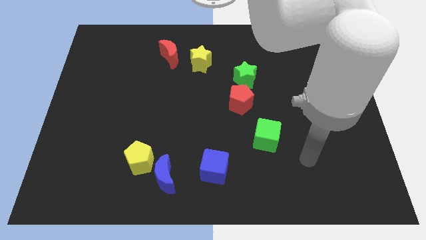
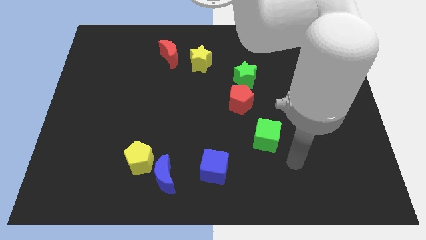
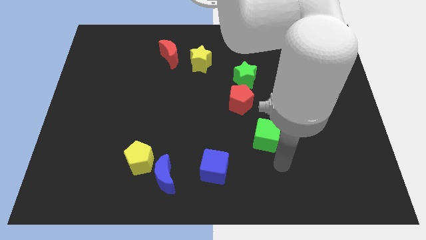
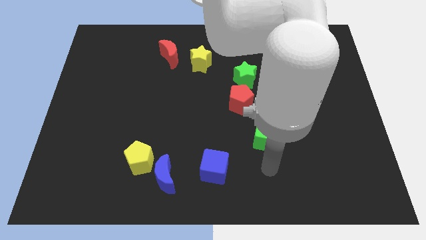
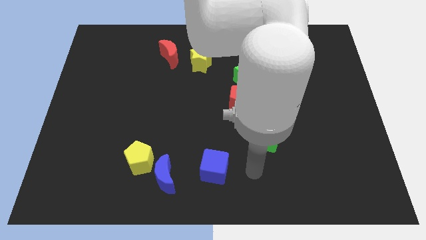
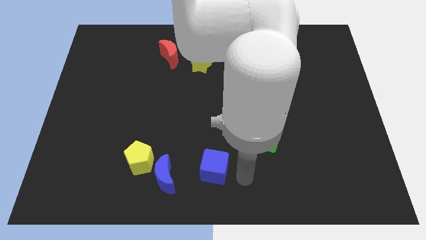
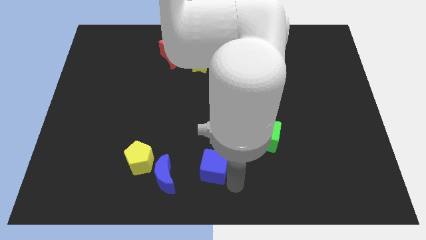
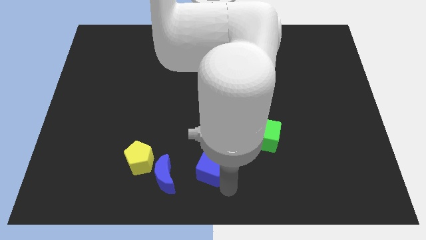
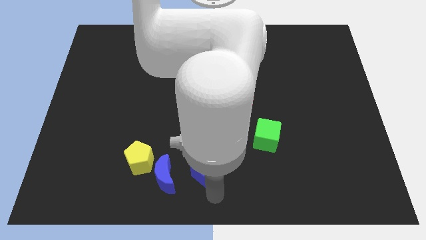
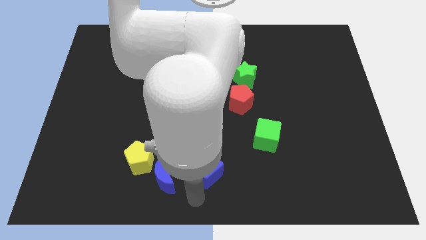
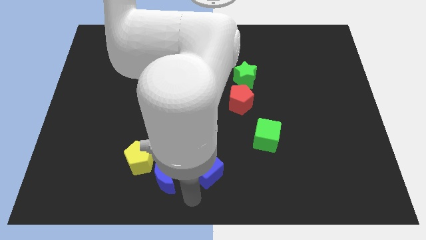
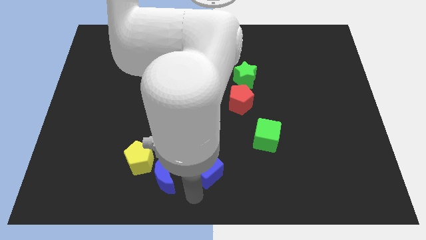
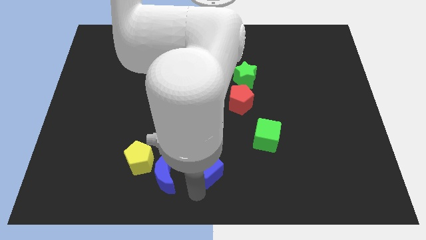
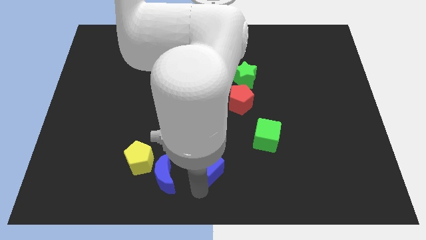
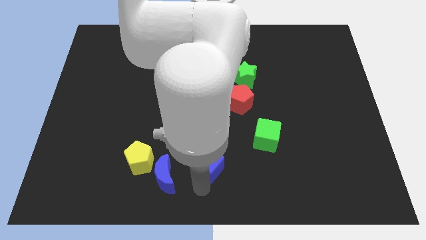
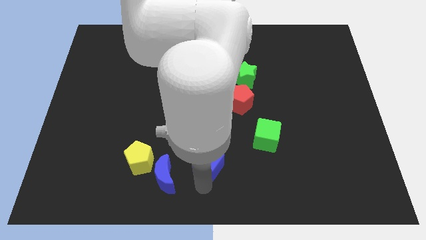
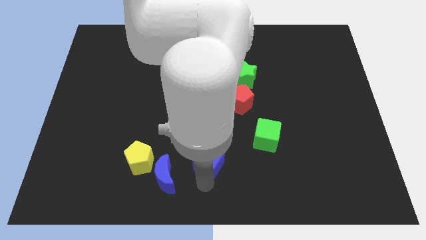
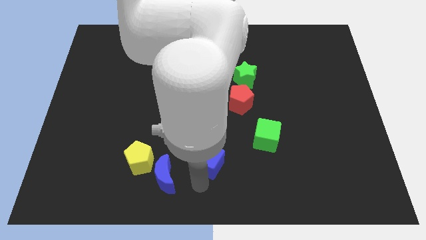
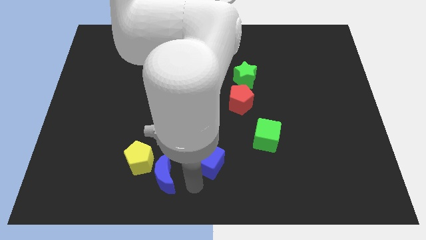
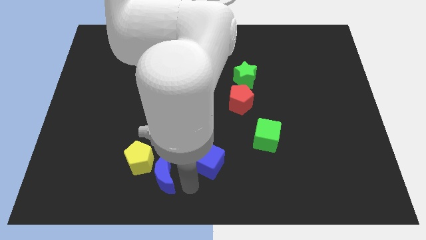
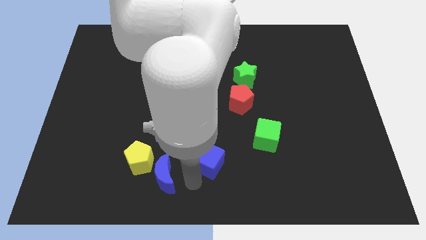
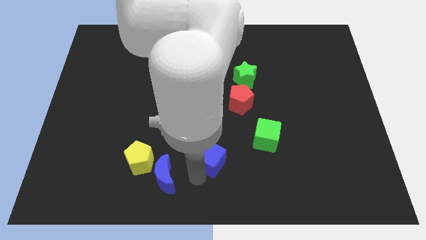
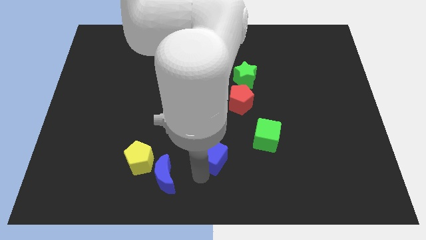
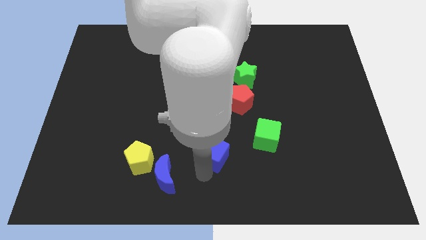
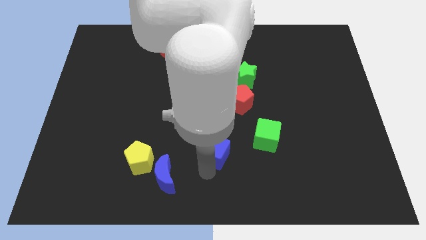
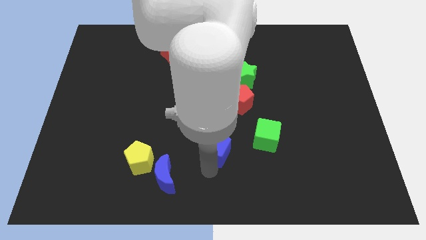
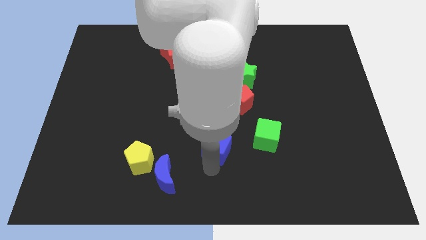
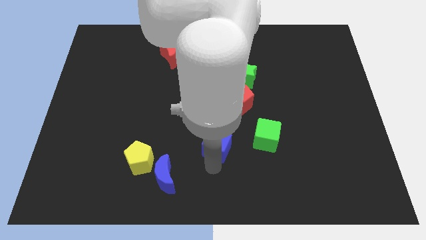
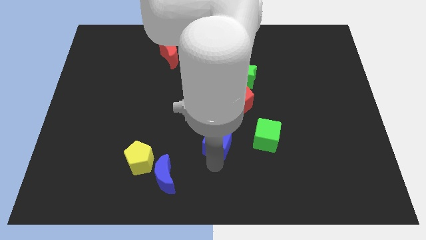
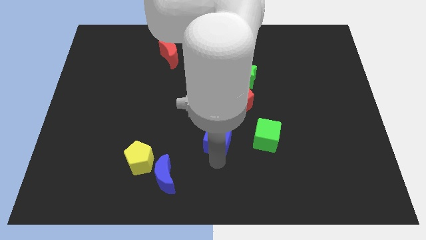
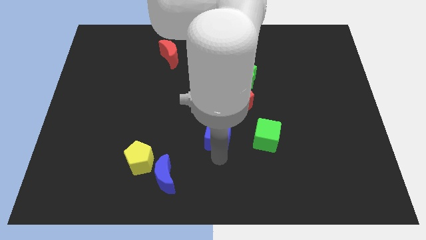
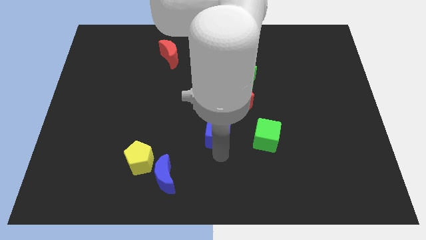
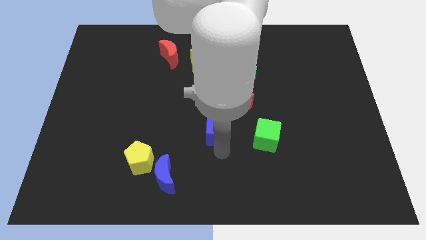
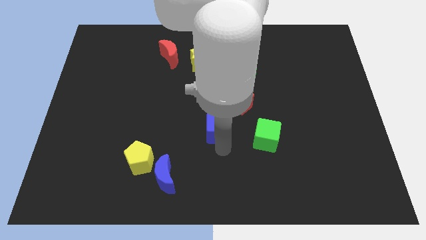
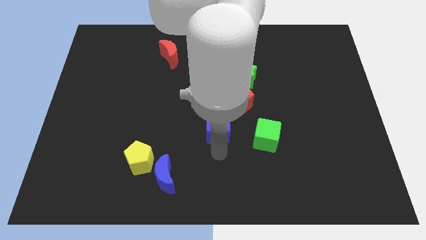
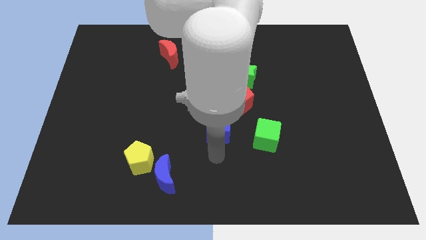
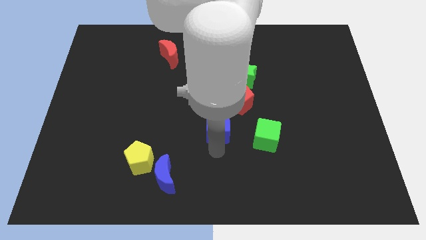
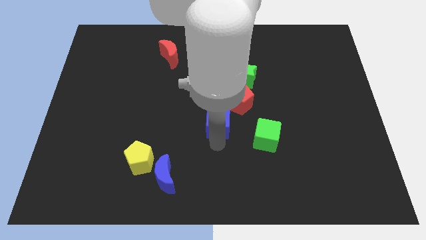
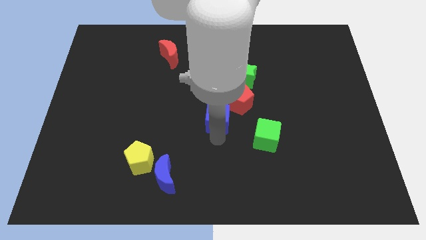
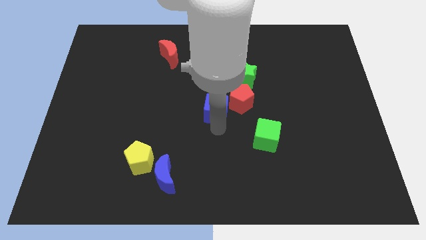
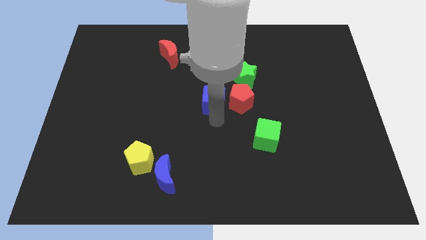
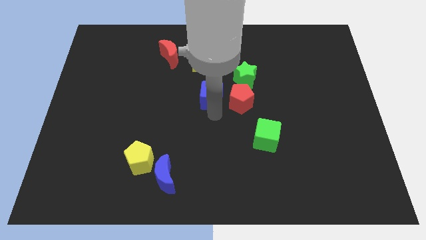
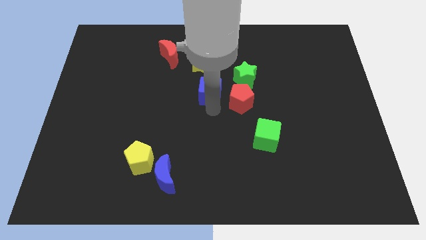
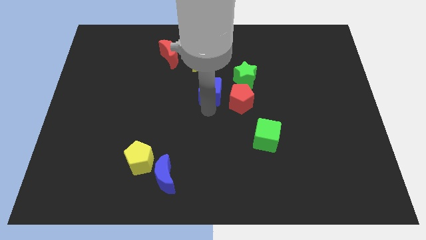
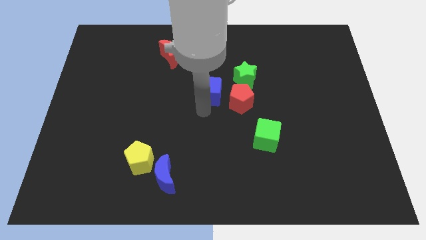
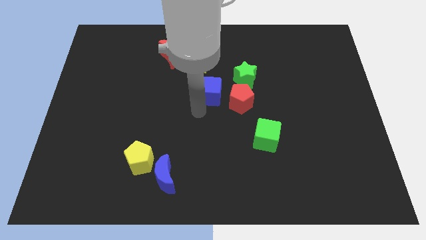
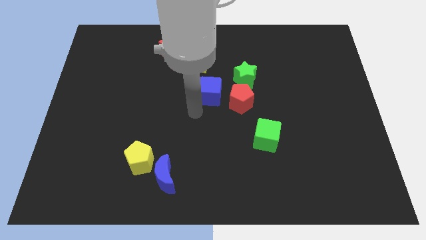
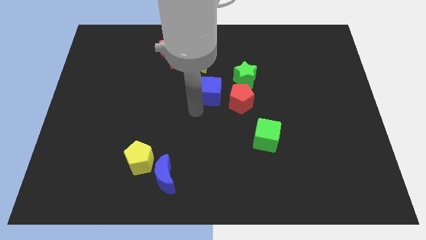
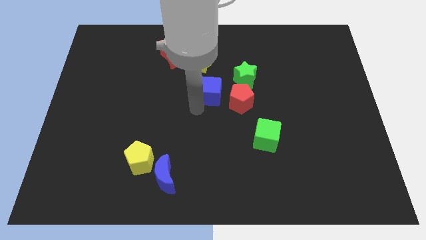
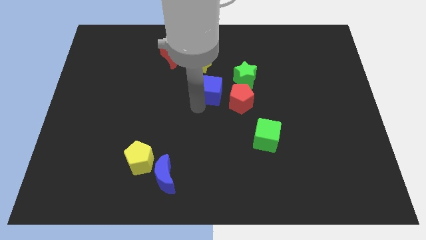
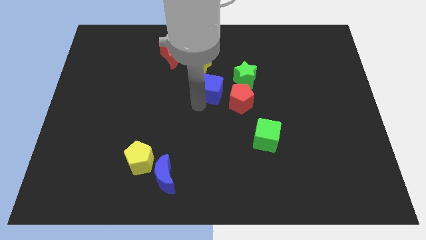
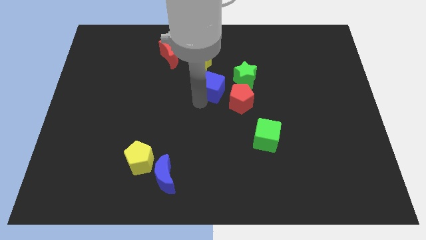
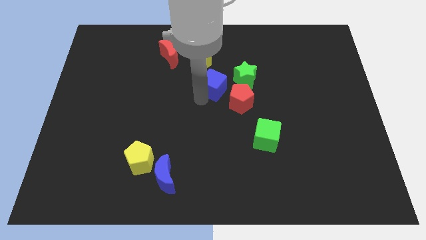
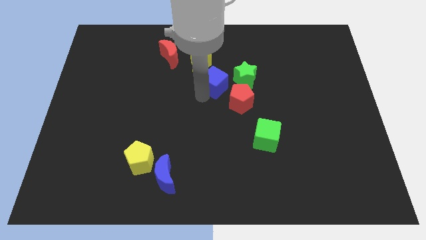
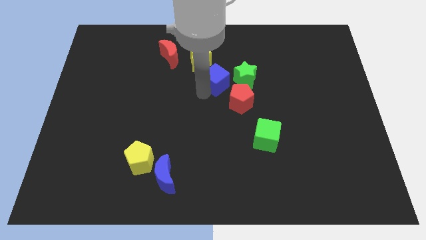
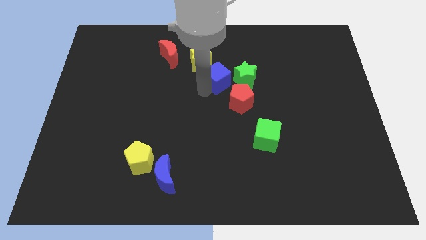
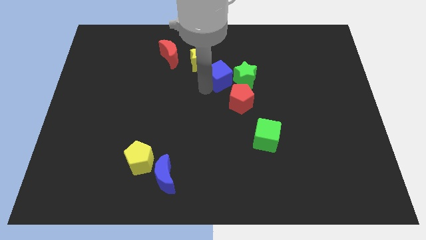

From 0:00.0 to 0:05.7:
put the blue cube above the red pentagon

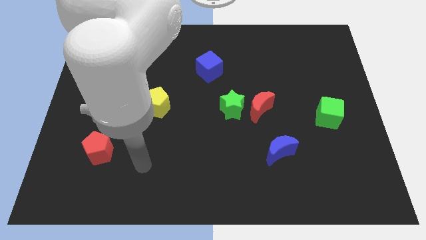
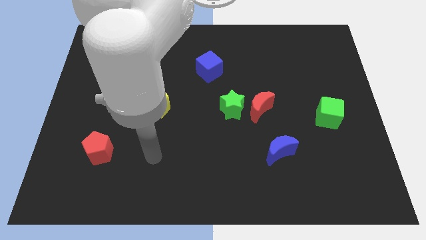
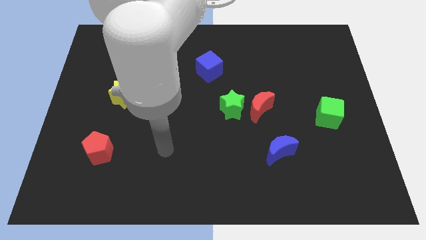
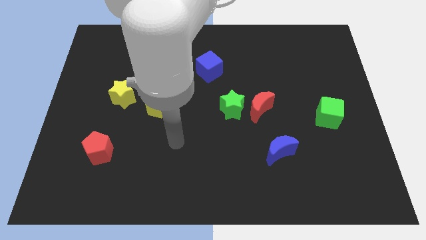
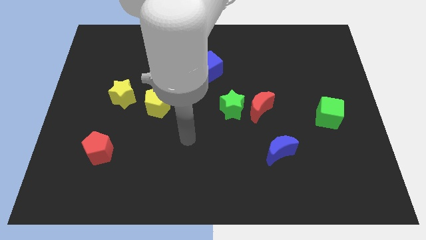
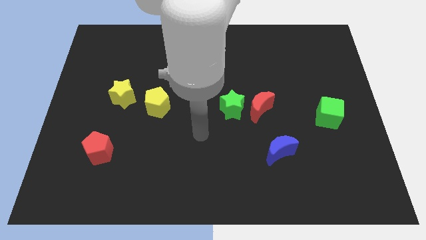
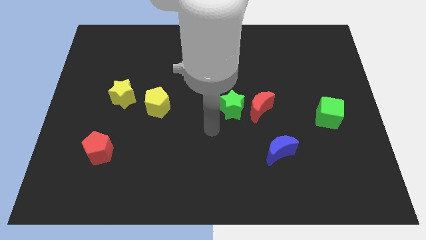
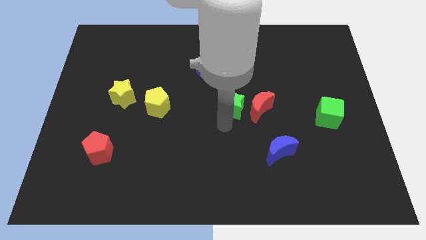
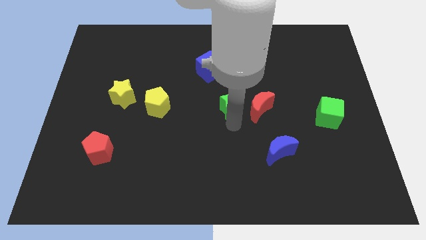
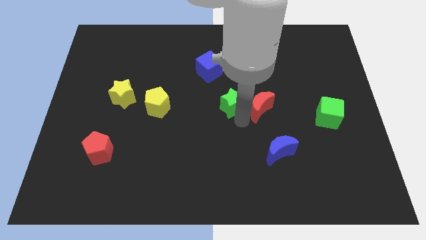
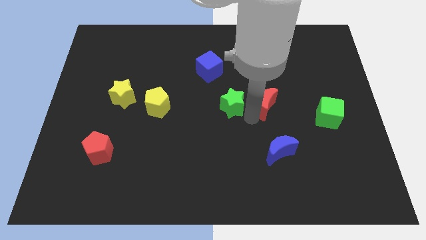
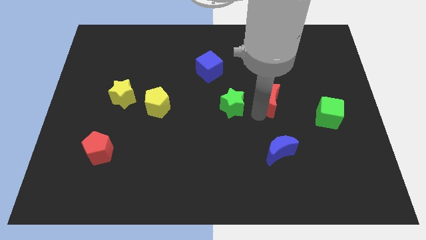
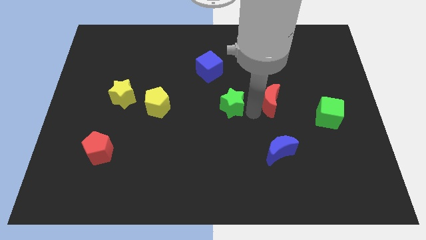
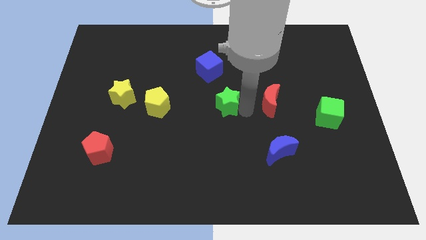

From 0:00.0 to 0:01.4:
move the green star to the bottom of the blue cube

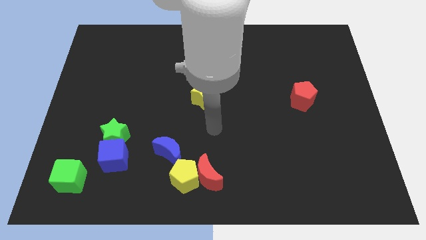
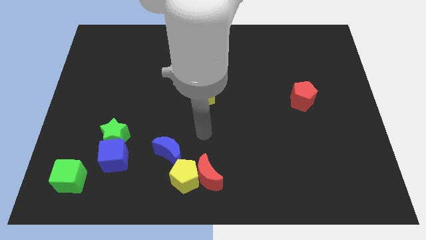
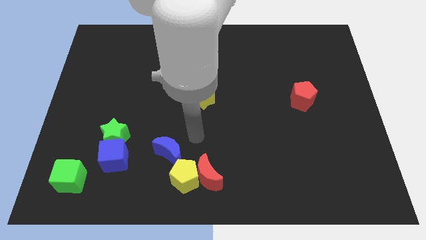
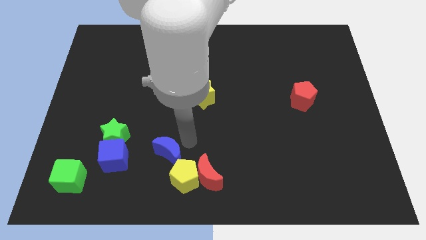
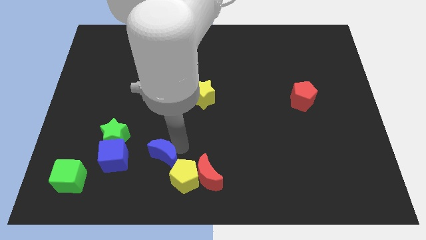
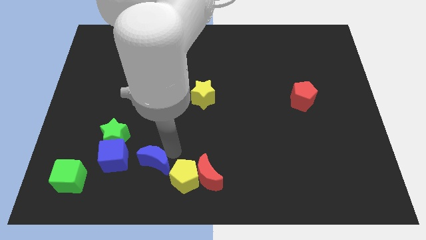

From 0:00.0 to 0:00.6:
put the blue moon to the left side of the yellow pentagon
